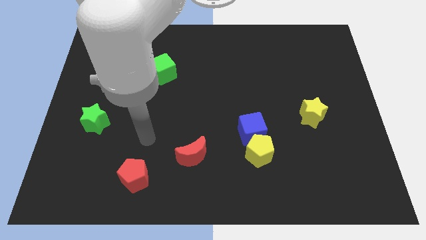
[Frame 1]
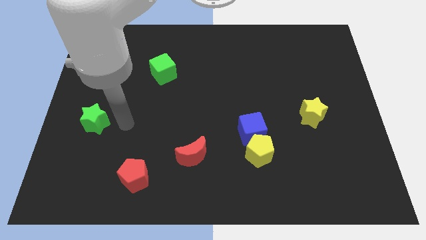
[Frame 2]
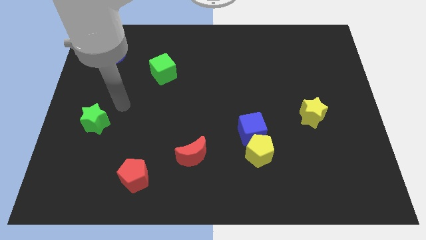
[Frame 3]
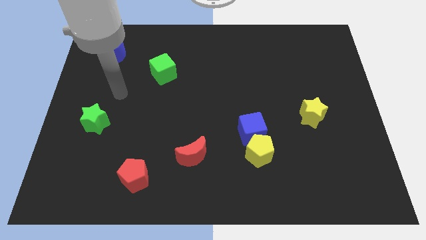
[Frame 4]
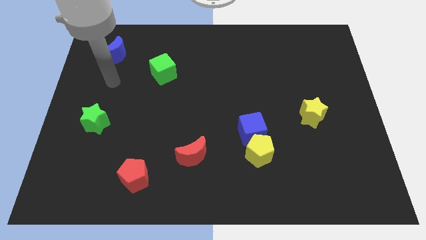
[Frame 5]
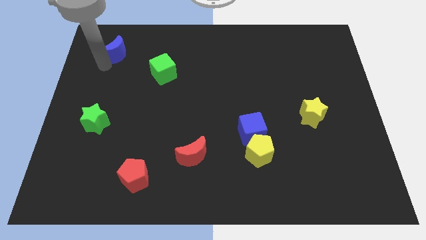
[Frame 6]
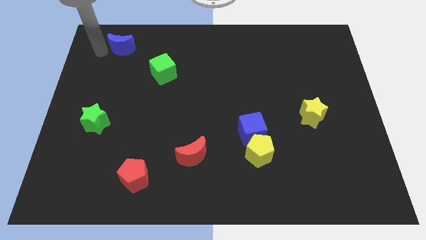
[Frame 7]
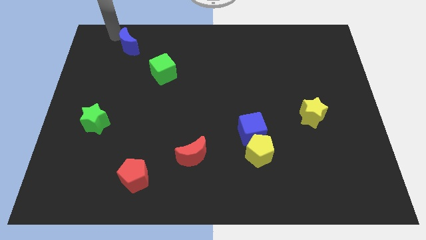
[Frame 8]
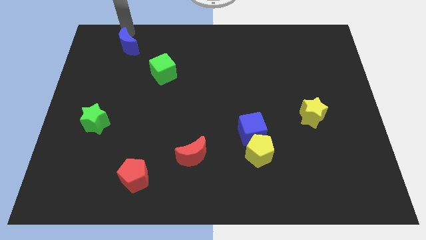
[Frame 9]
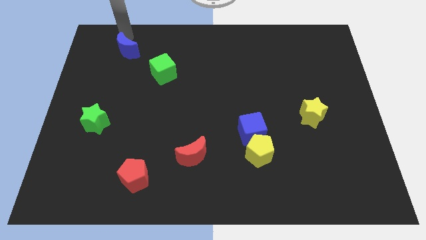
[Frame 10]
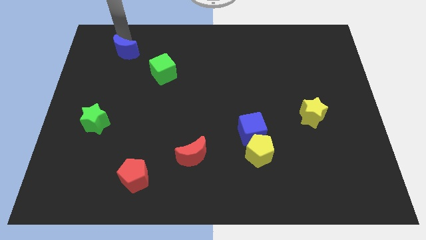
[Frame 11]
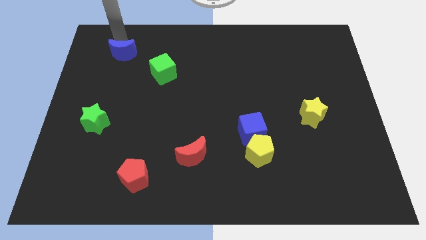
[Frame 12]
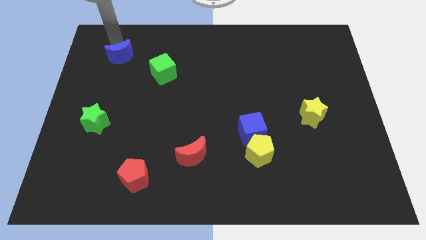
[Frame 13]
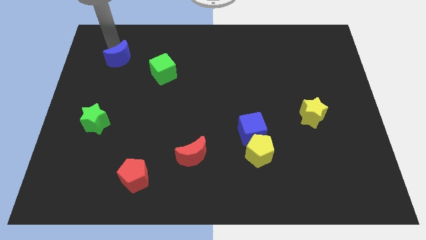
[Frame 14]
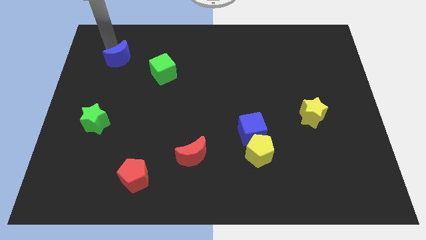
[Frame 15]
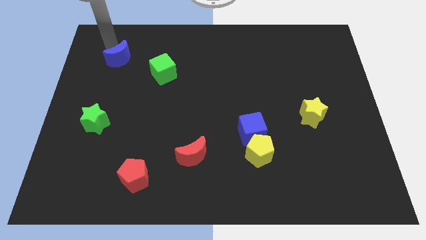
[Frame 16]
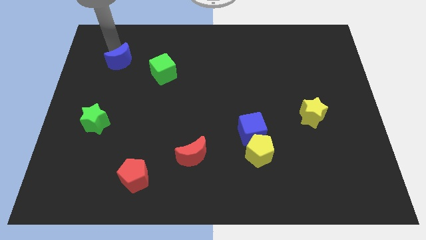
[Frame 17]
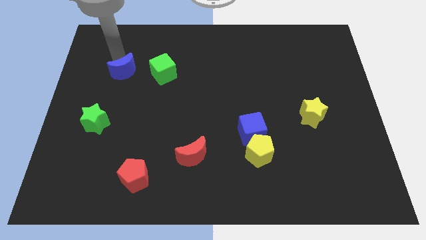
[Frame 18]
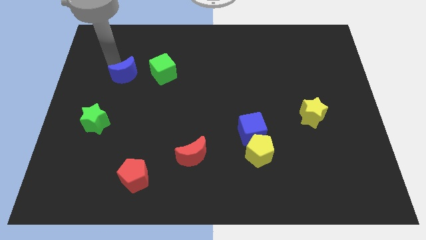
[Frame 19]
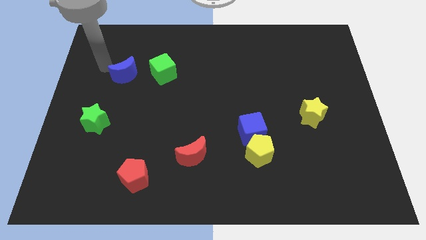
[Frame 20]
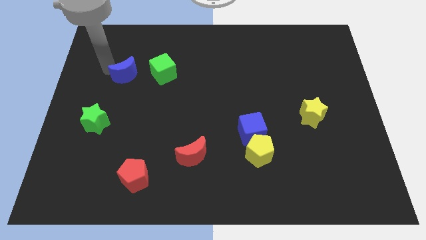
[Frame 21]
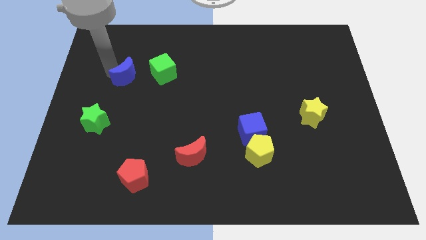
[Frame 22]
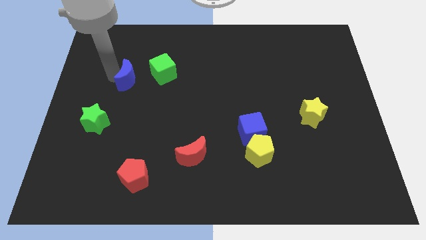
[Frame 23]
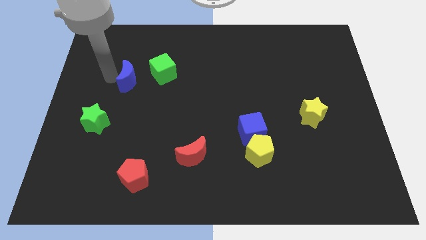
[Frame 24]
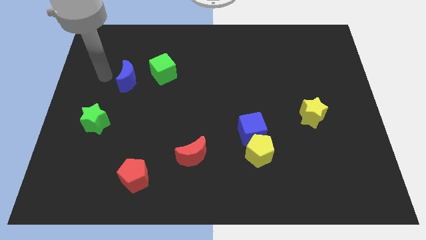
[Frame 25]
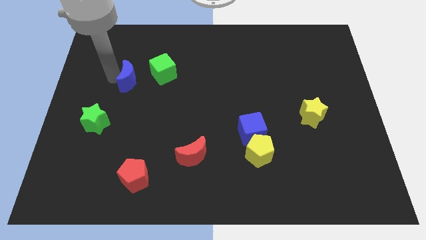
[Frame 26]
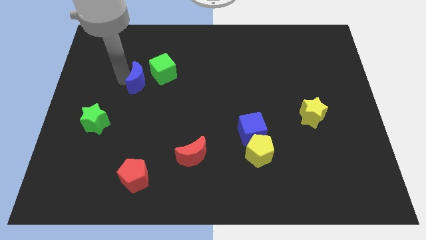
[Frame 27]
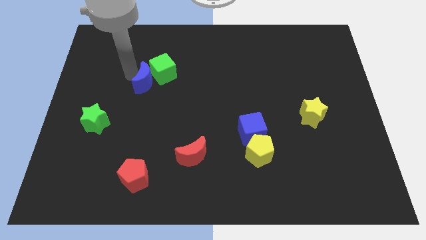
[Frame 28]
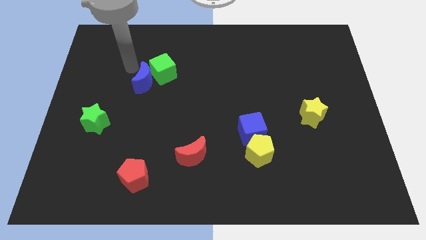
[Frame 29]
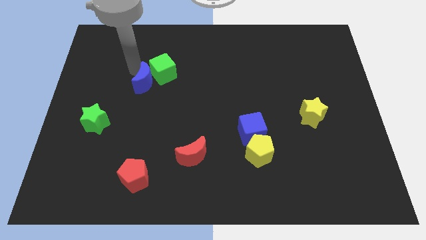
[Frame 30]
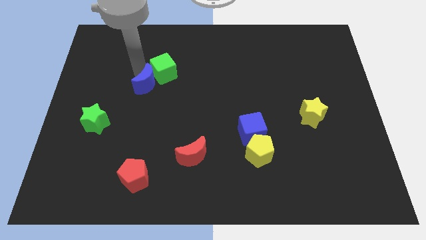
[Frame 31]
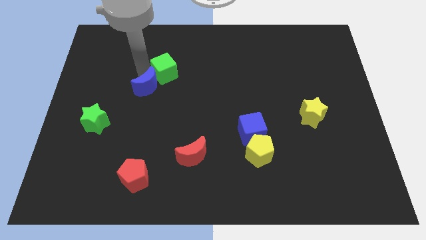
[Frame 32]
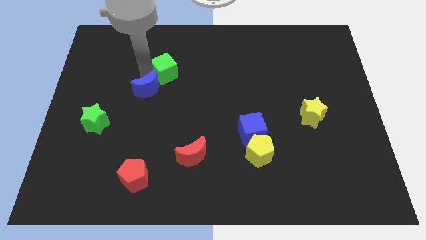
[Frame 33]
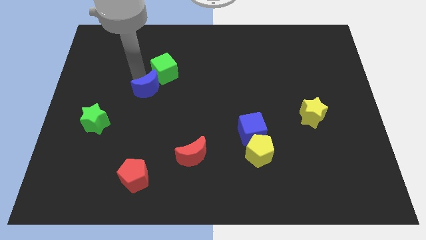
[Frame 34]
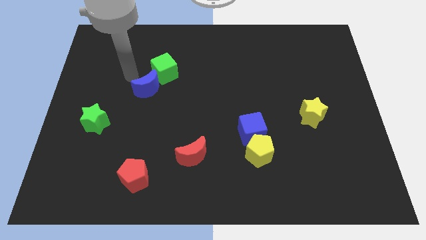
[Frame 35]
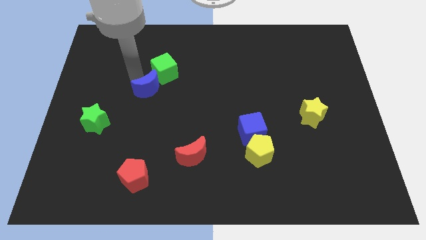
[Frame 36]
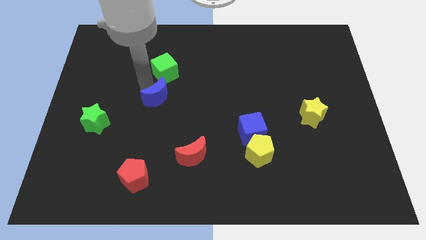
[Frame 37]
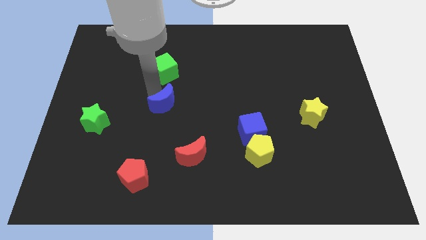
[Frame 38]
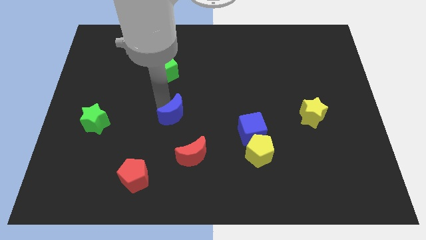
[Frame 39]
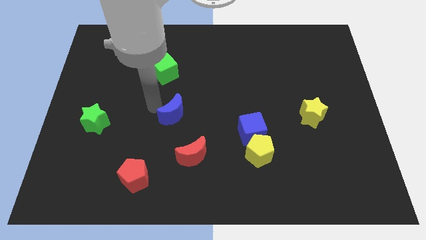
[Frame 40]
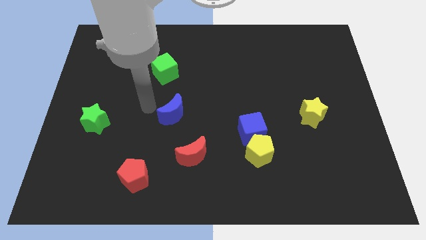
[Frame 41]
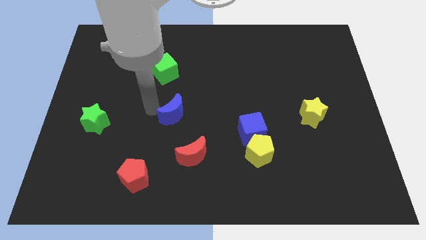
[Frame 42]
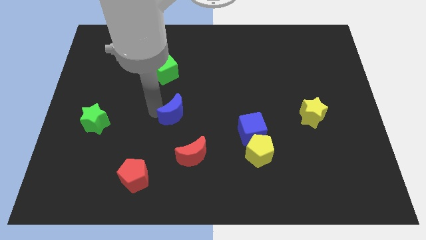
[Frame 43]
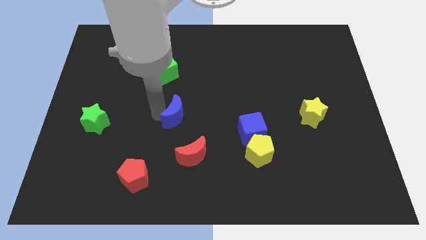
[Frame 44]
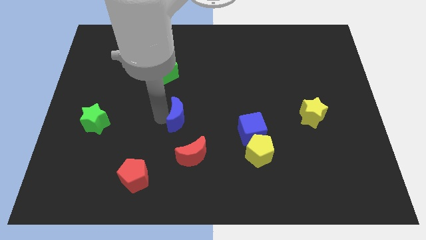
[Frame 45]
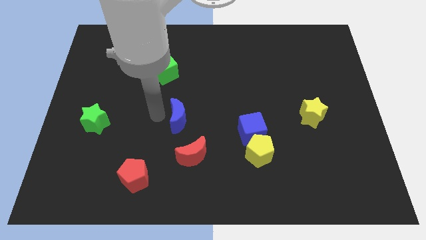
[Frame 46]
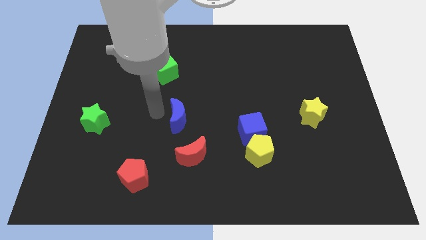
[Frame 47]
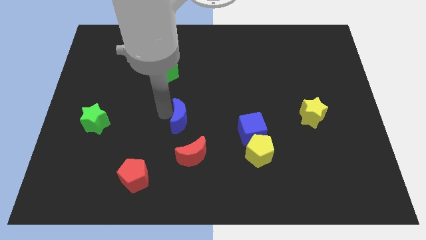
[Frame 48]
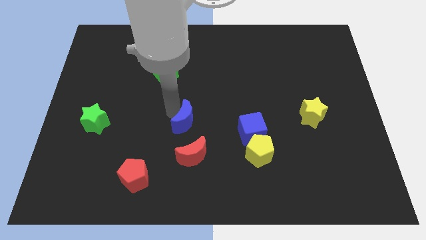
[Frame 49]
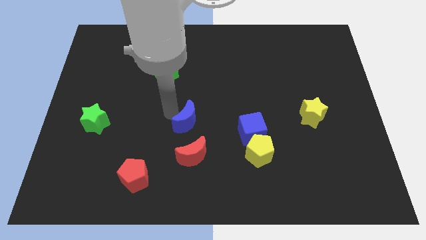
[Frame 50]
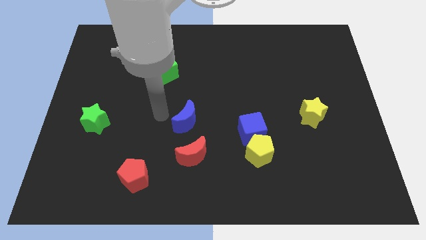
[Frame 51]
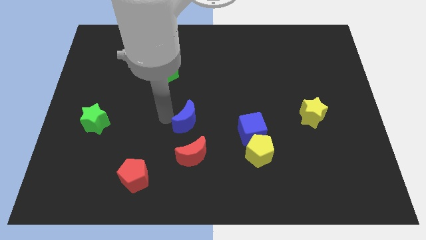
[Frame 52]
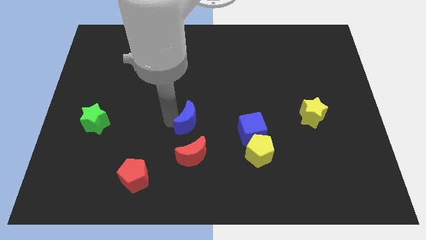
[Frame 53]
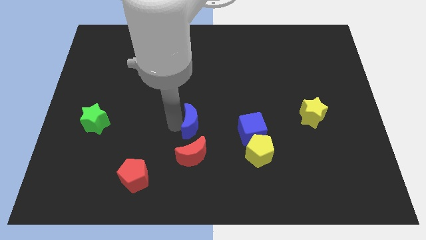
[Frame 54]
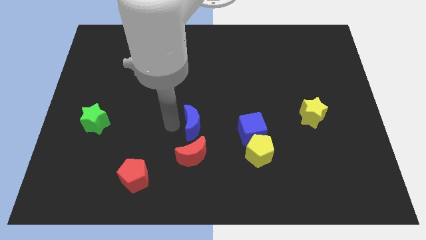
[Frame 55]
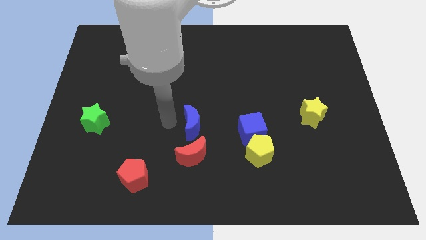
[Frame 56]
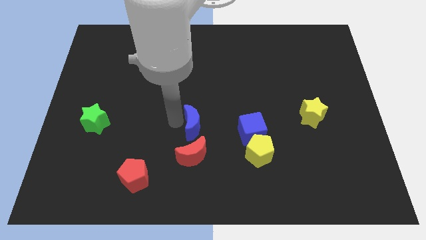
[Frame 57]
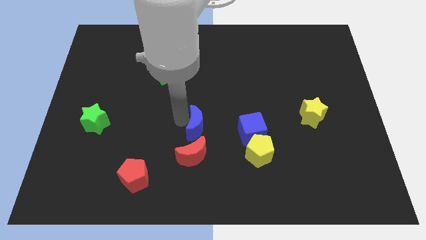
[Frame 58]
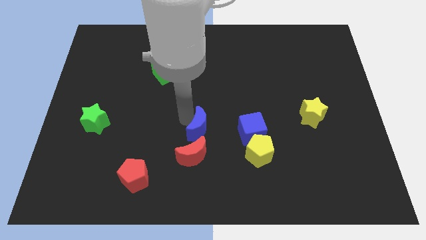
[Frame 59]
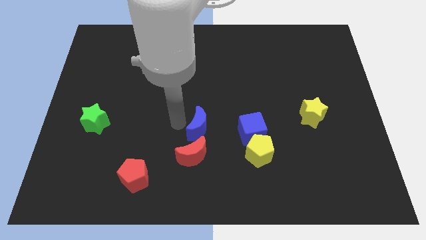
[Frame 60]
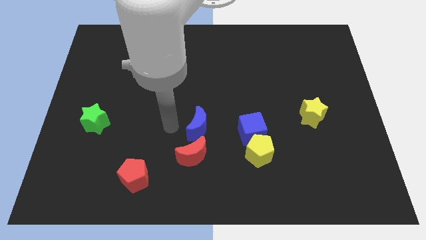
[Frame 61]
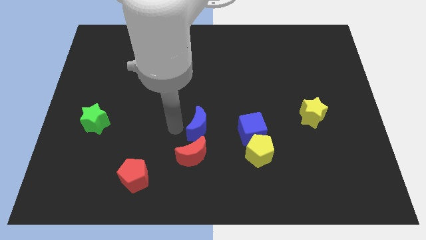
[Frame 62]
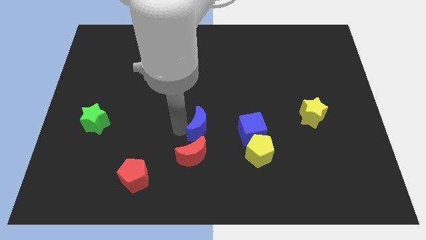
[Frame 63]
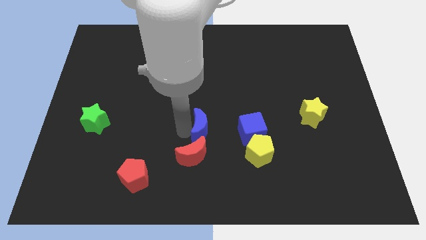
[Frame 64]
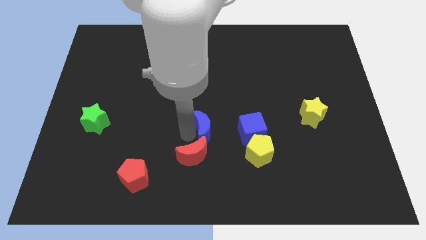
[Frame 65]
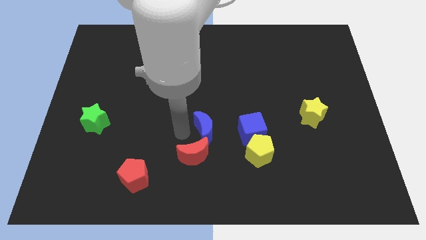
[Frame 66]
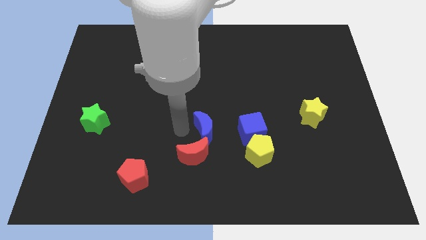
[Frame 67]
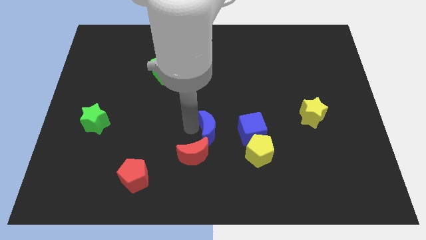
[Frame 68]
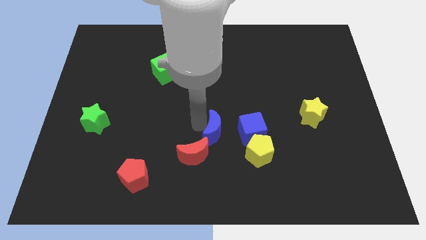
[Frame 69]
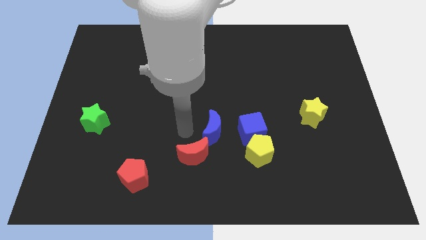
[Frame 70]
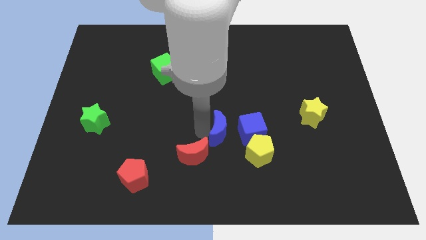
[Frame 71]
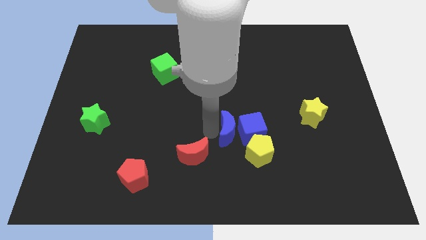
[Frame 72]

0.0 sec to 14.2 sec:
push the blue moon next to the blue cube
